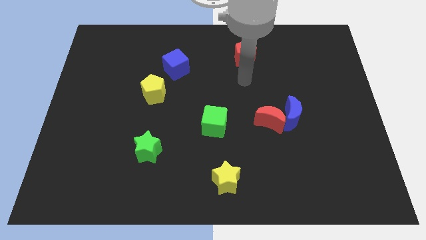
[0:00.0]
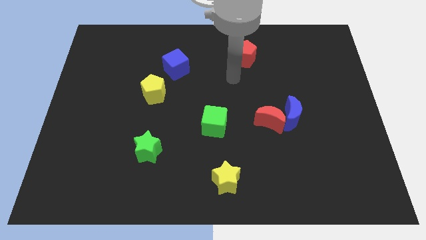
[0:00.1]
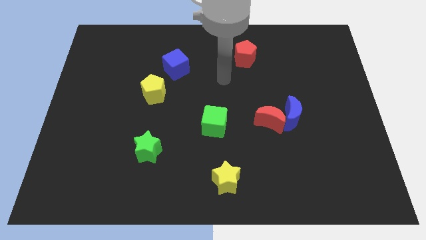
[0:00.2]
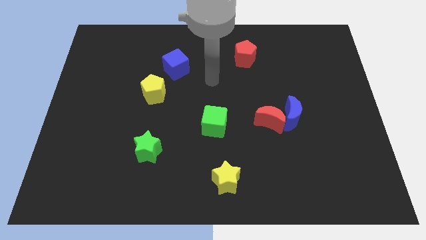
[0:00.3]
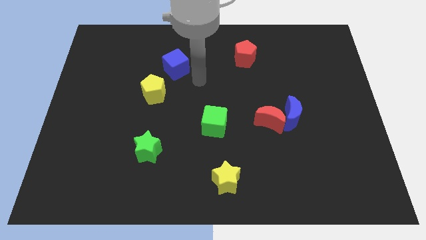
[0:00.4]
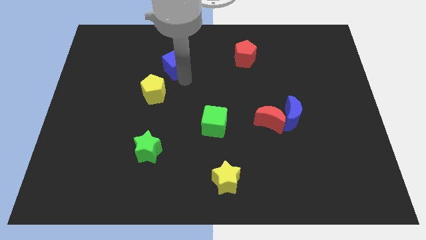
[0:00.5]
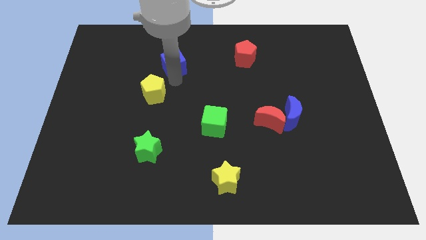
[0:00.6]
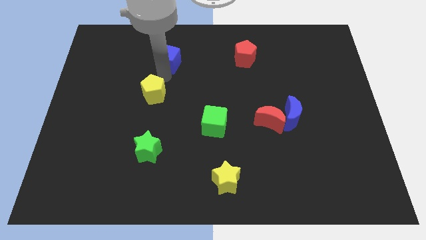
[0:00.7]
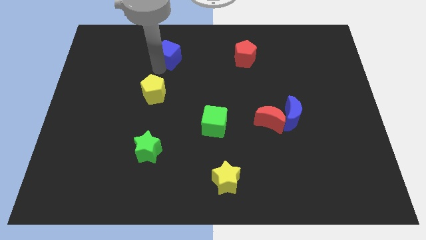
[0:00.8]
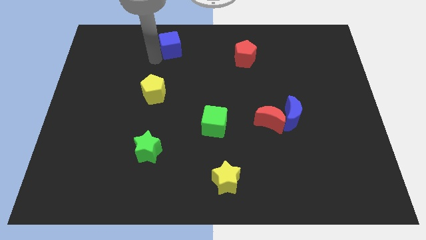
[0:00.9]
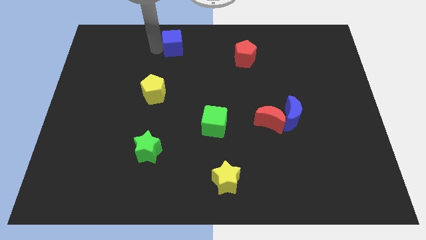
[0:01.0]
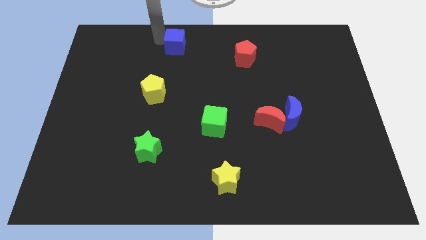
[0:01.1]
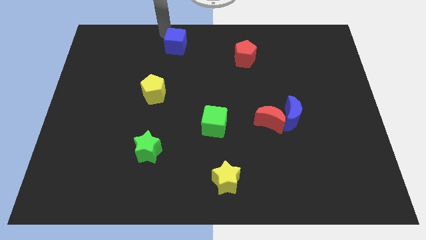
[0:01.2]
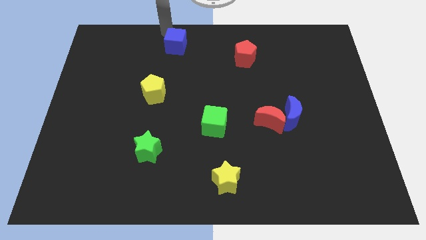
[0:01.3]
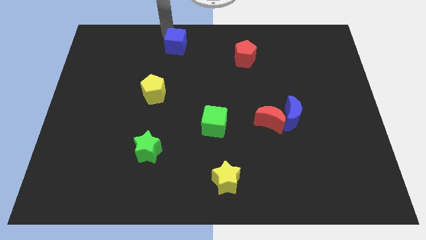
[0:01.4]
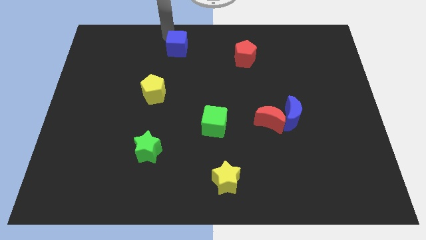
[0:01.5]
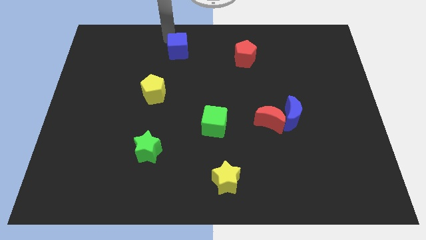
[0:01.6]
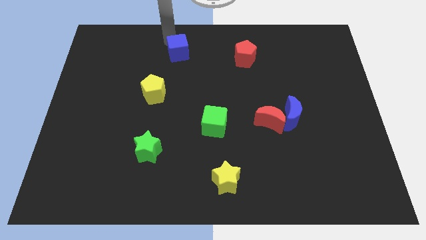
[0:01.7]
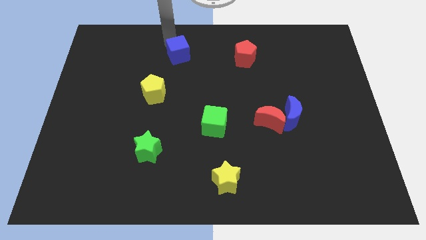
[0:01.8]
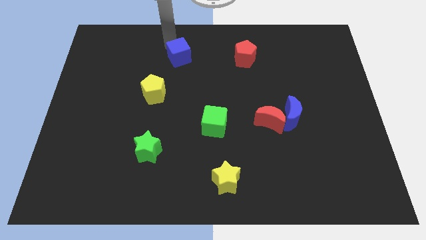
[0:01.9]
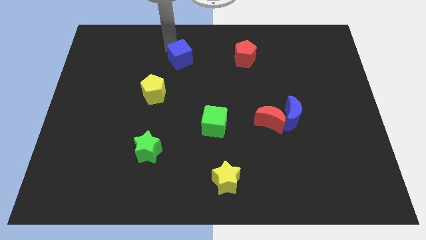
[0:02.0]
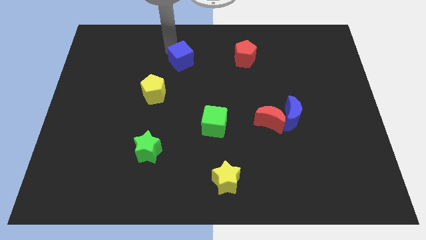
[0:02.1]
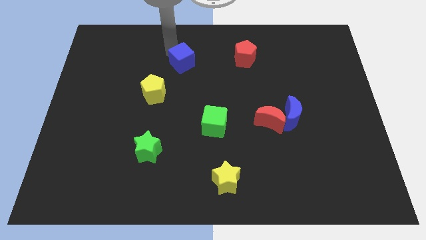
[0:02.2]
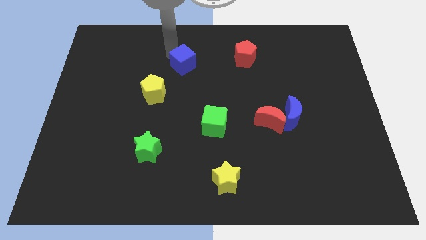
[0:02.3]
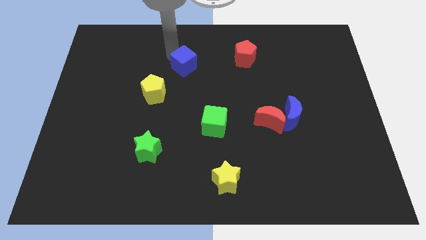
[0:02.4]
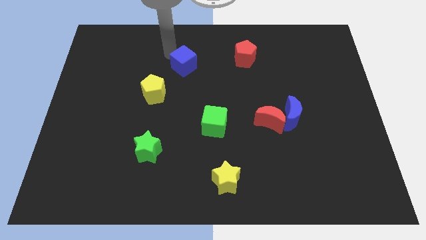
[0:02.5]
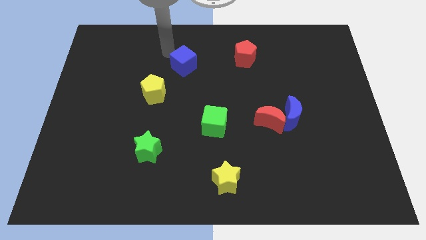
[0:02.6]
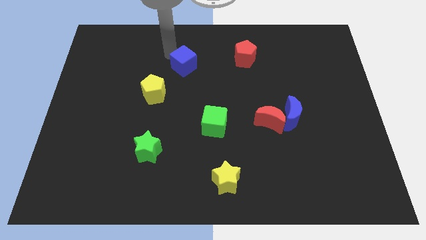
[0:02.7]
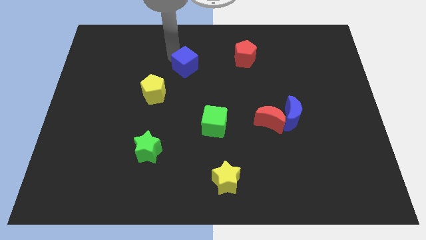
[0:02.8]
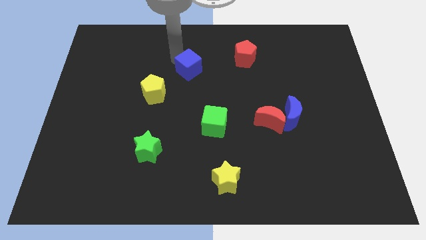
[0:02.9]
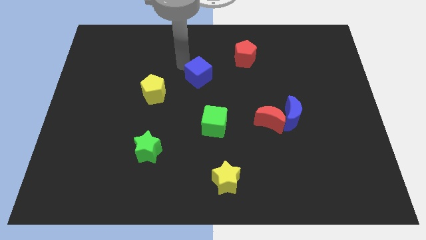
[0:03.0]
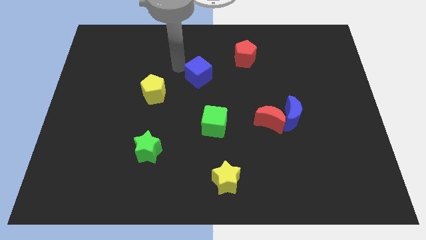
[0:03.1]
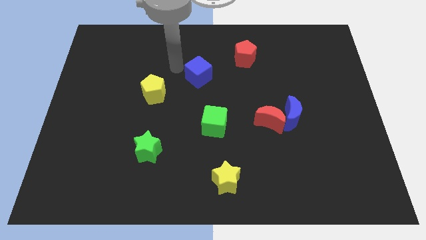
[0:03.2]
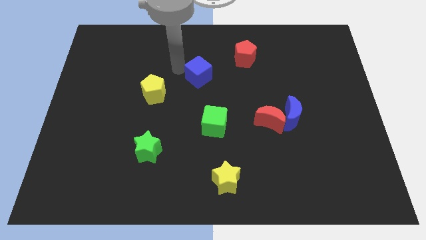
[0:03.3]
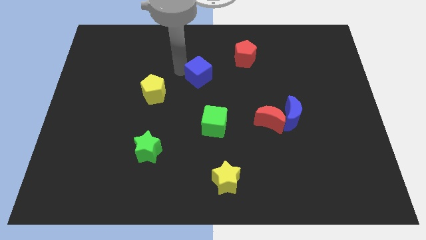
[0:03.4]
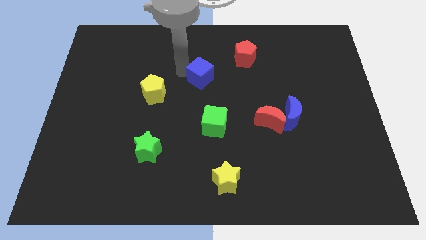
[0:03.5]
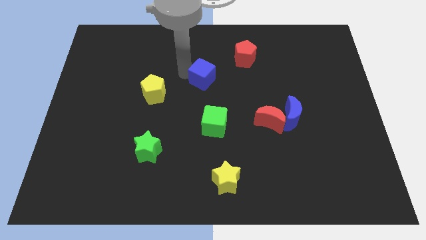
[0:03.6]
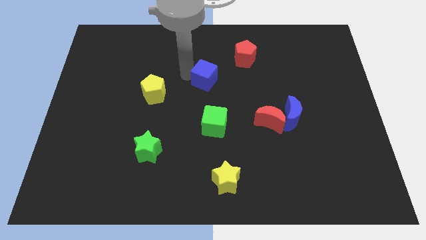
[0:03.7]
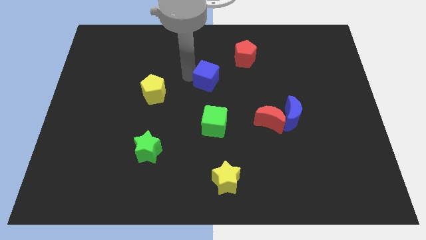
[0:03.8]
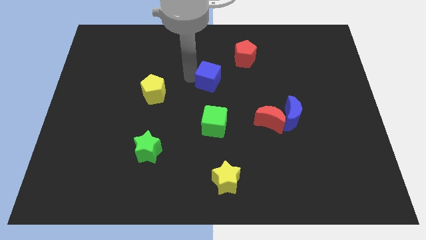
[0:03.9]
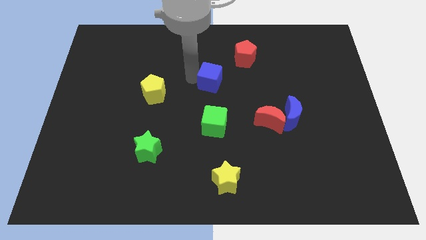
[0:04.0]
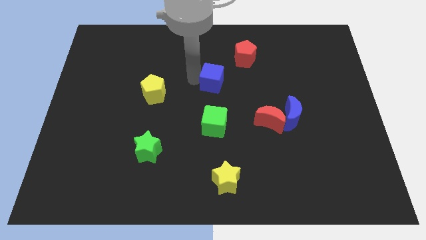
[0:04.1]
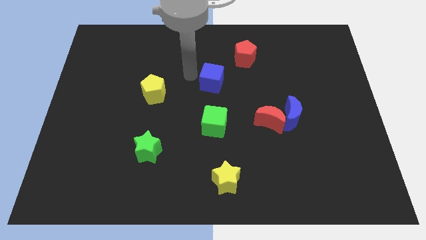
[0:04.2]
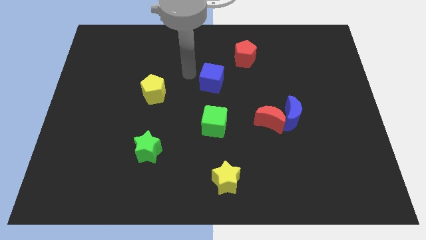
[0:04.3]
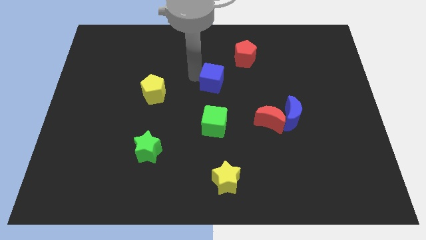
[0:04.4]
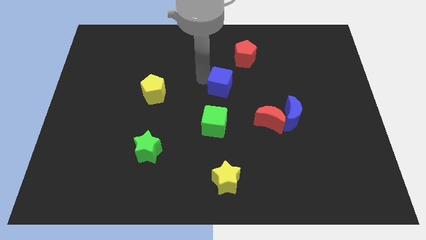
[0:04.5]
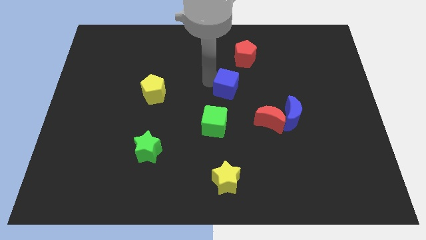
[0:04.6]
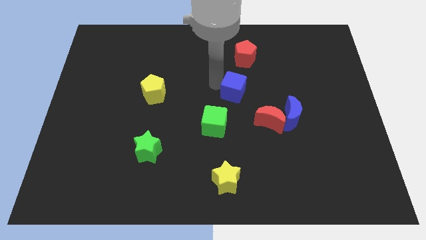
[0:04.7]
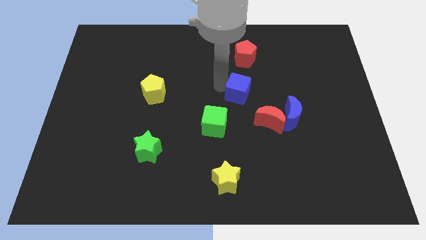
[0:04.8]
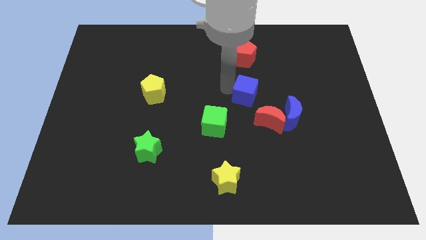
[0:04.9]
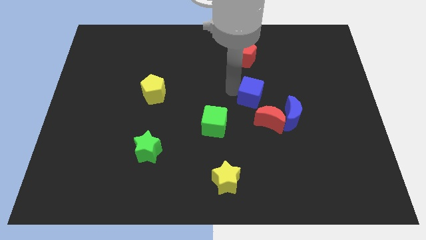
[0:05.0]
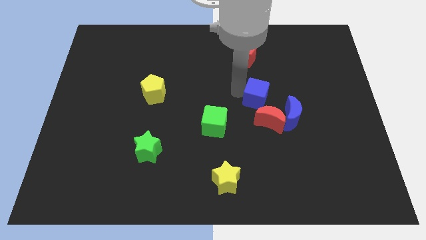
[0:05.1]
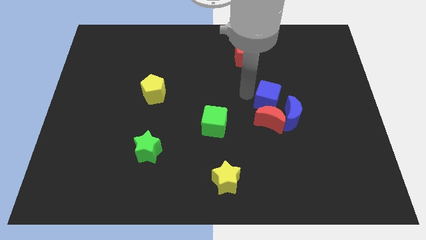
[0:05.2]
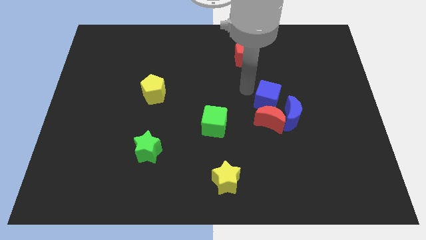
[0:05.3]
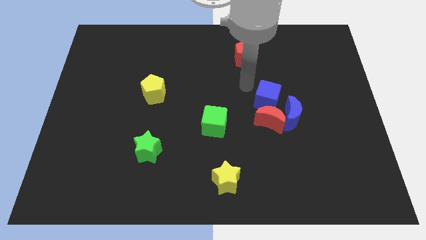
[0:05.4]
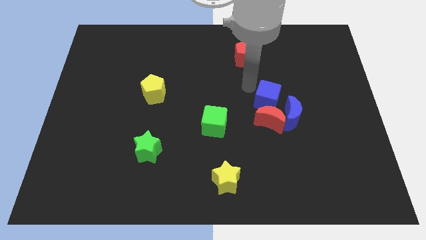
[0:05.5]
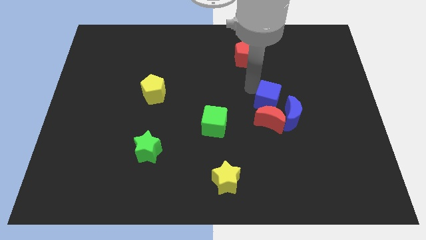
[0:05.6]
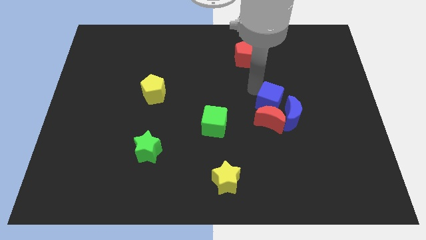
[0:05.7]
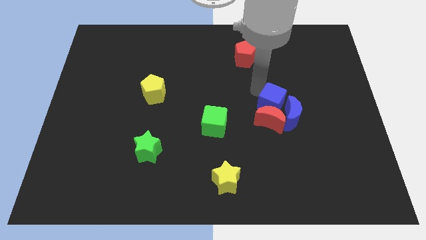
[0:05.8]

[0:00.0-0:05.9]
put the blue cube next to the blue moon

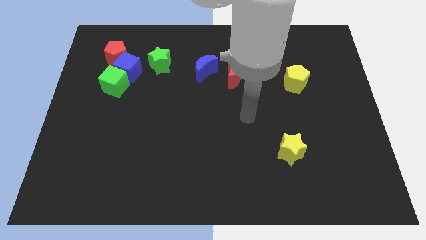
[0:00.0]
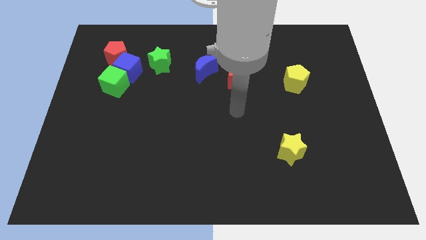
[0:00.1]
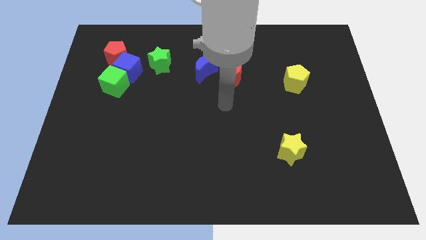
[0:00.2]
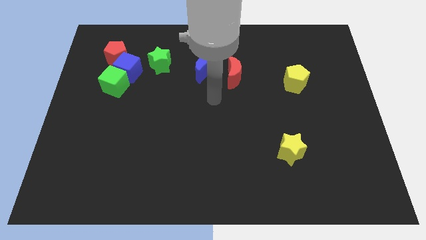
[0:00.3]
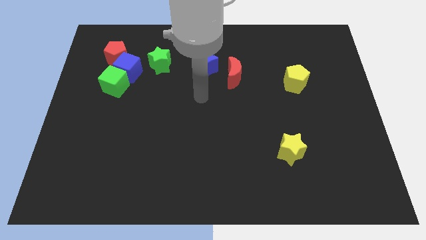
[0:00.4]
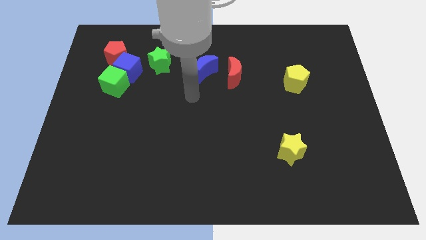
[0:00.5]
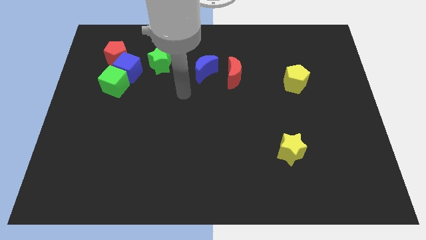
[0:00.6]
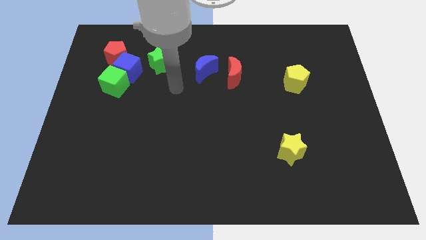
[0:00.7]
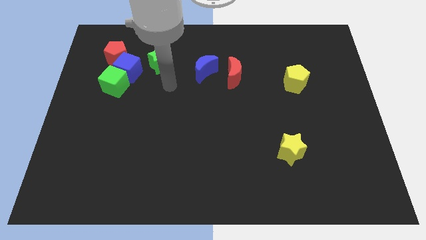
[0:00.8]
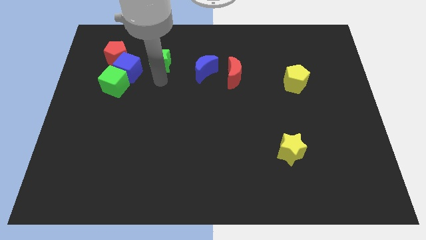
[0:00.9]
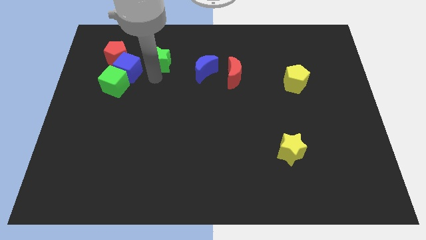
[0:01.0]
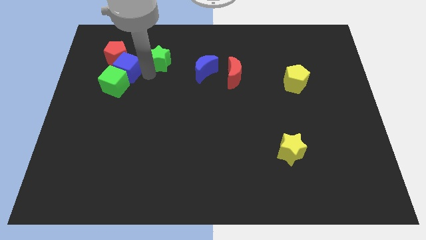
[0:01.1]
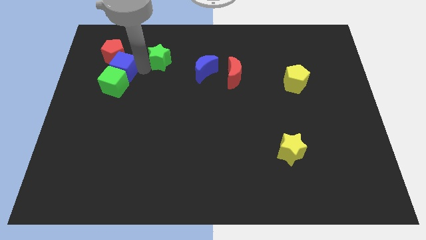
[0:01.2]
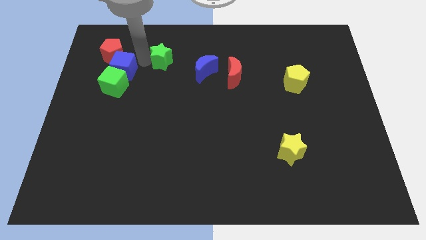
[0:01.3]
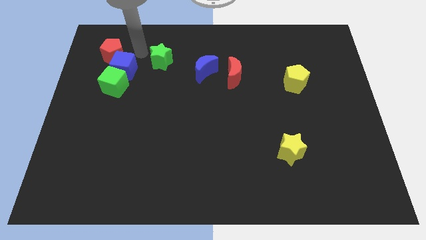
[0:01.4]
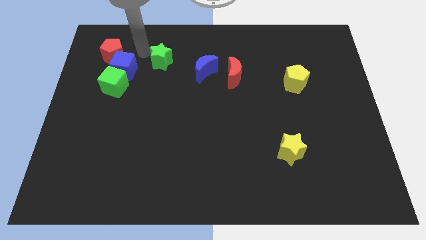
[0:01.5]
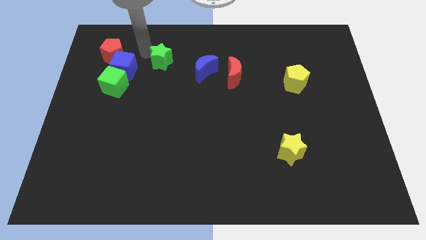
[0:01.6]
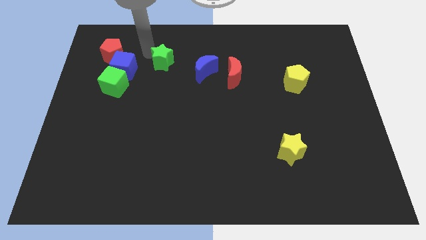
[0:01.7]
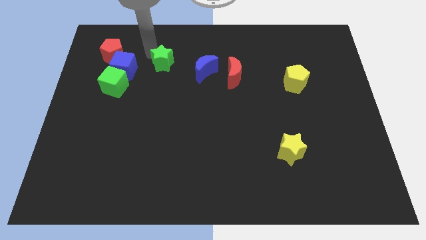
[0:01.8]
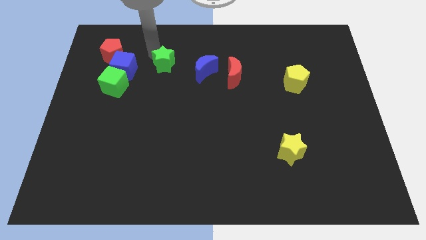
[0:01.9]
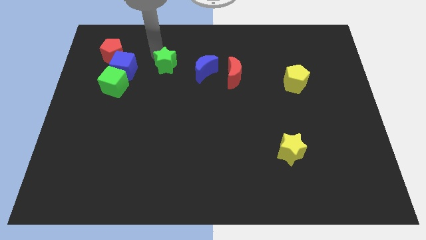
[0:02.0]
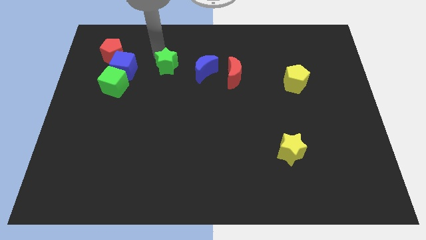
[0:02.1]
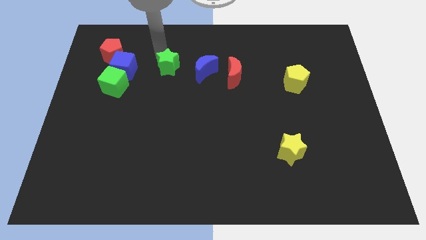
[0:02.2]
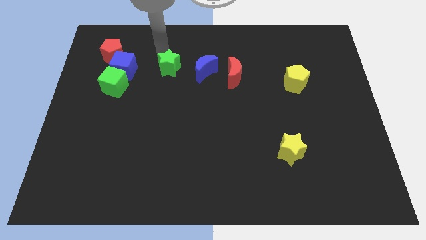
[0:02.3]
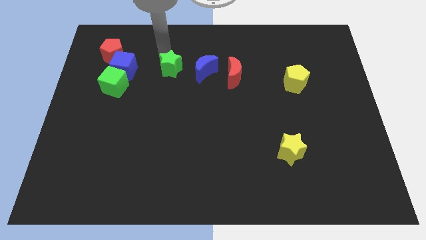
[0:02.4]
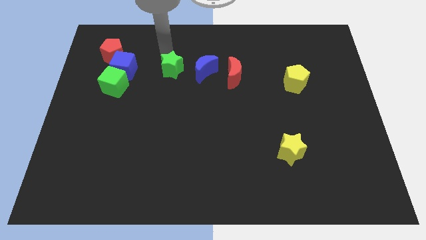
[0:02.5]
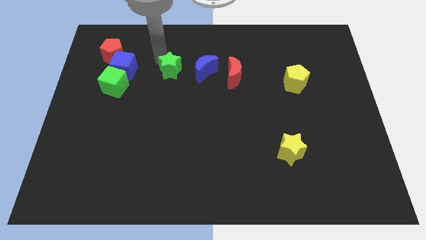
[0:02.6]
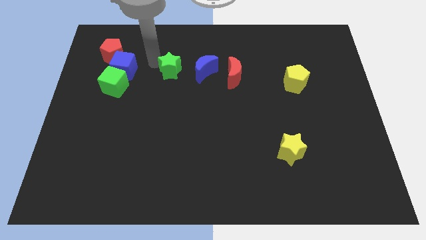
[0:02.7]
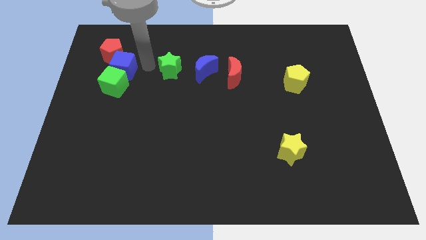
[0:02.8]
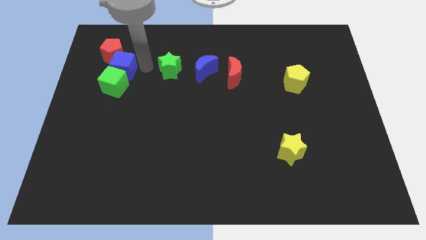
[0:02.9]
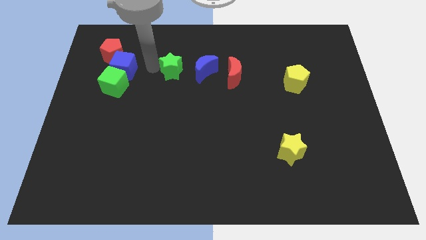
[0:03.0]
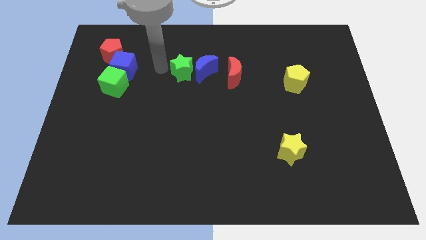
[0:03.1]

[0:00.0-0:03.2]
slide the green star close to the blue moon
